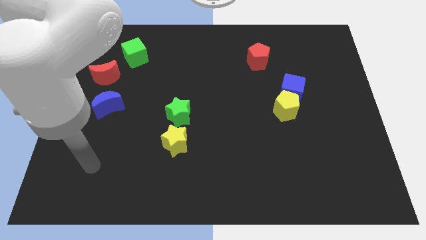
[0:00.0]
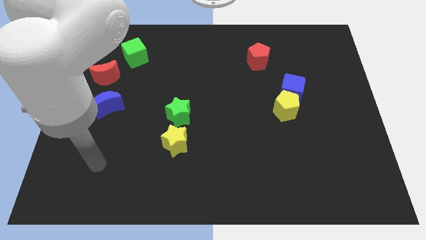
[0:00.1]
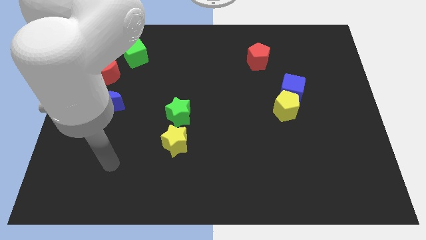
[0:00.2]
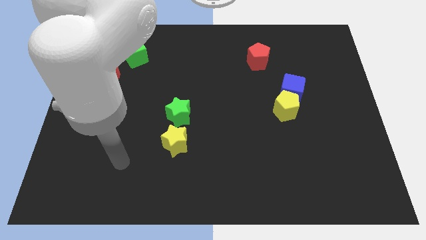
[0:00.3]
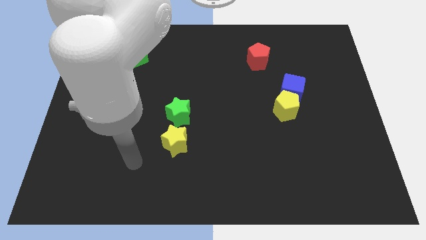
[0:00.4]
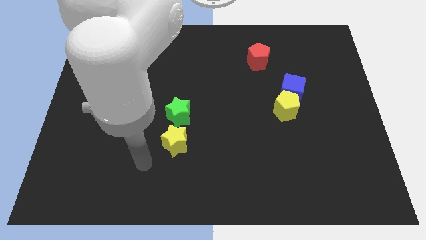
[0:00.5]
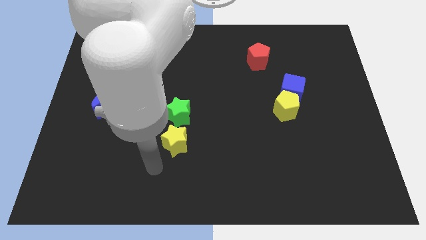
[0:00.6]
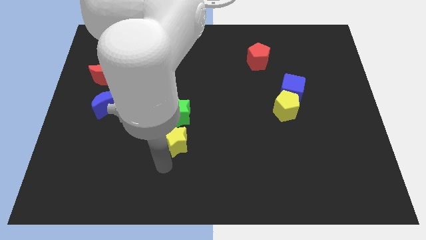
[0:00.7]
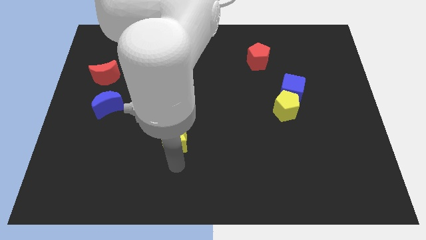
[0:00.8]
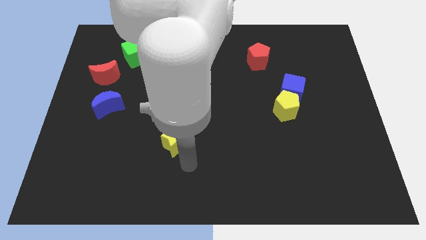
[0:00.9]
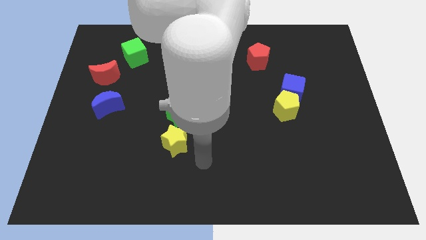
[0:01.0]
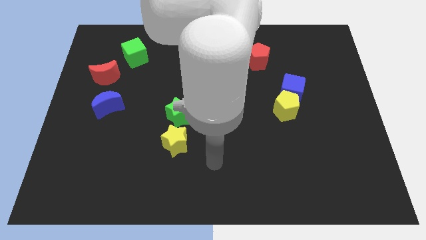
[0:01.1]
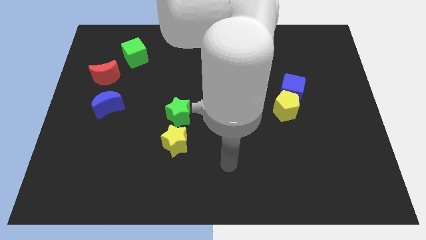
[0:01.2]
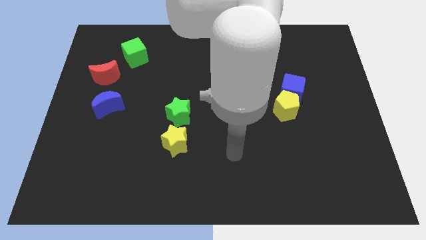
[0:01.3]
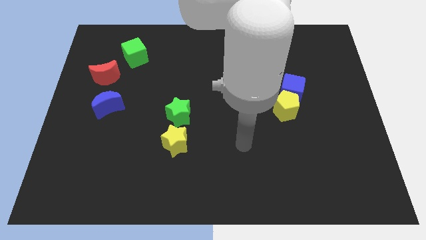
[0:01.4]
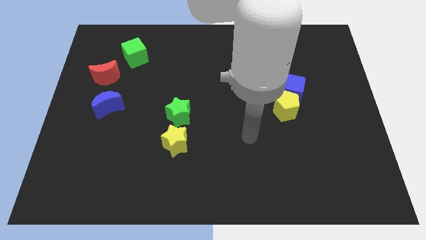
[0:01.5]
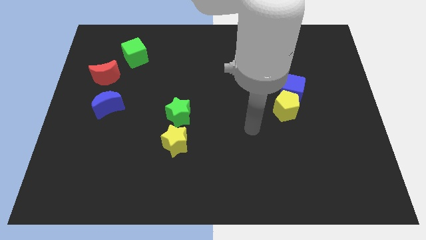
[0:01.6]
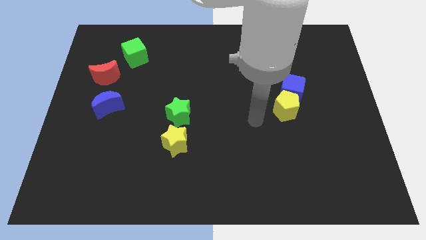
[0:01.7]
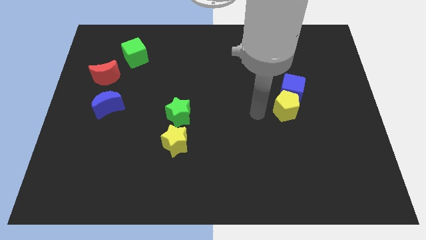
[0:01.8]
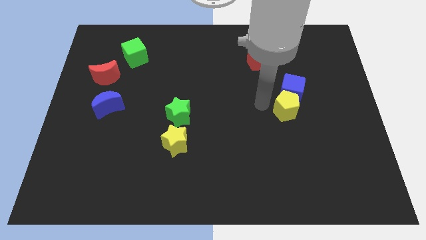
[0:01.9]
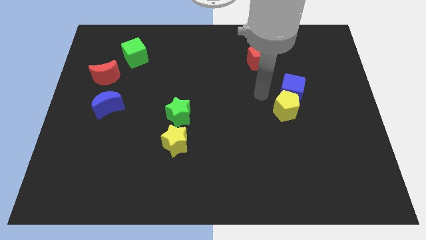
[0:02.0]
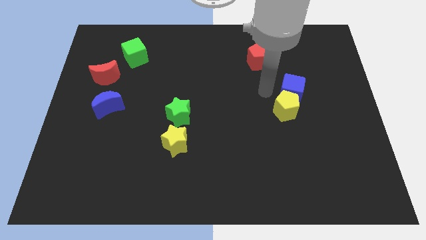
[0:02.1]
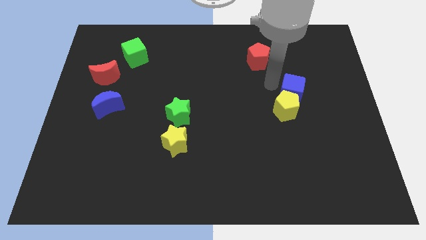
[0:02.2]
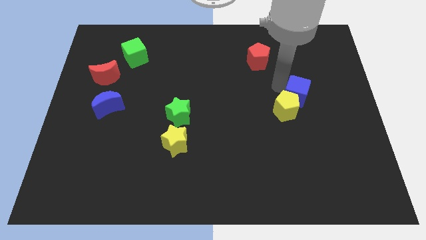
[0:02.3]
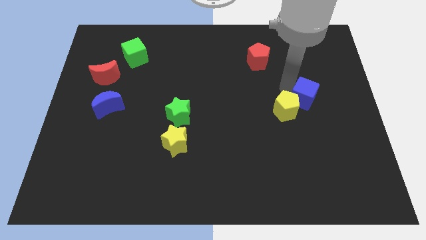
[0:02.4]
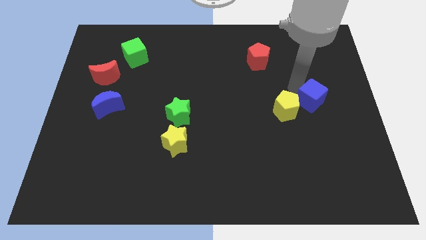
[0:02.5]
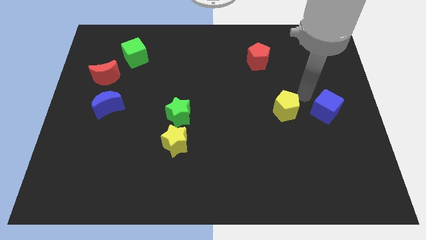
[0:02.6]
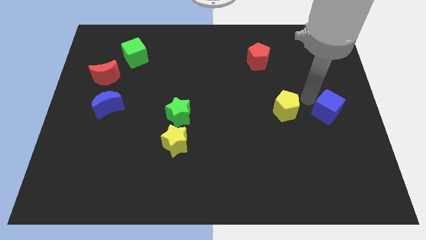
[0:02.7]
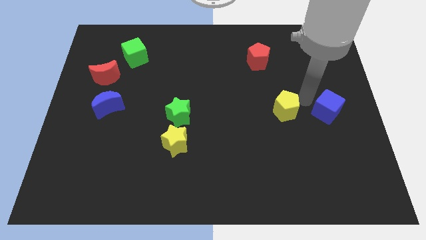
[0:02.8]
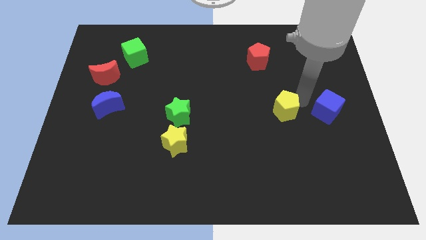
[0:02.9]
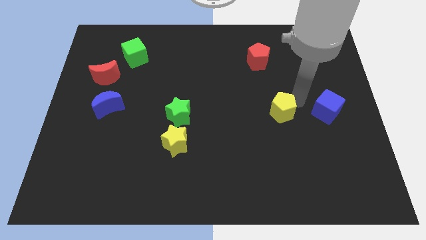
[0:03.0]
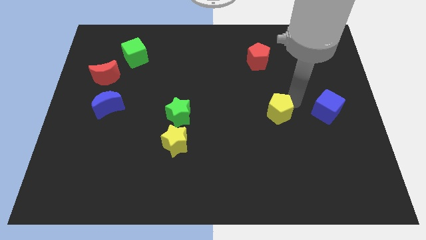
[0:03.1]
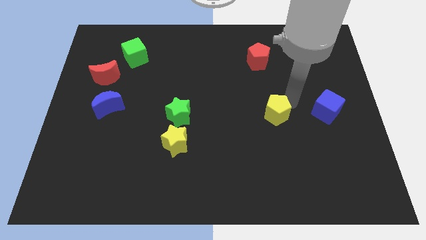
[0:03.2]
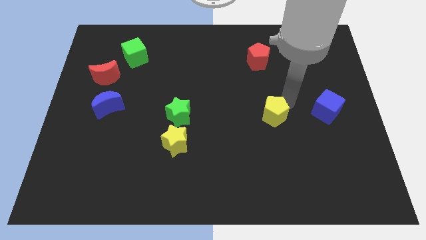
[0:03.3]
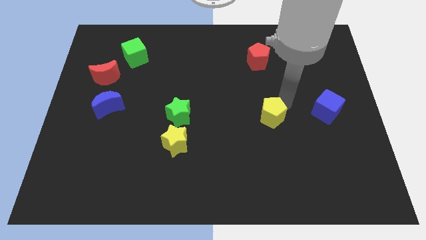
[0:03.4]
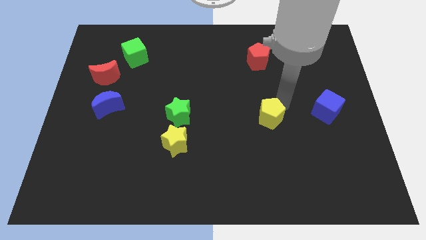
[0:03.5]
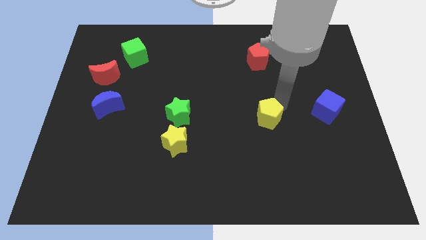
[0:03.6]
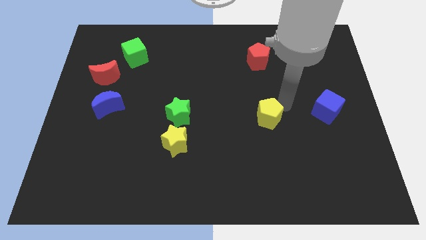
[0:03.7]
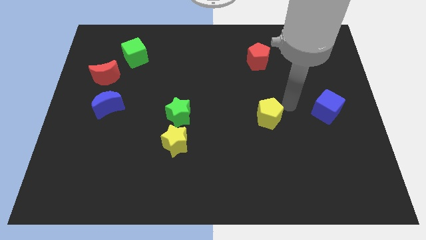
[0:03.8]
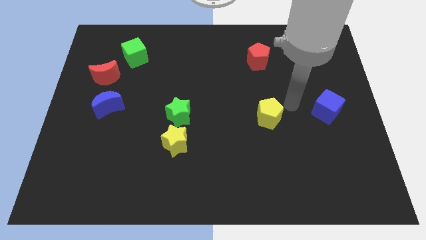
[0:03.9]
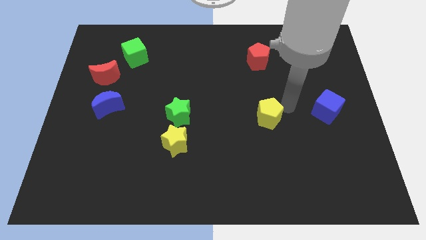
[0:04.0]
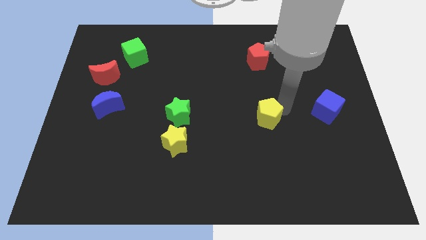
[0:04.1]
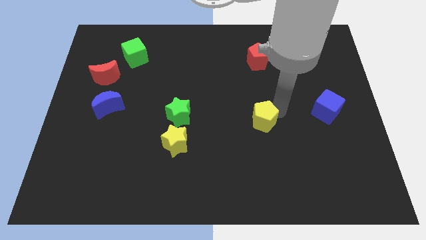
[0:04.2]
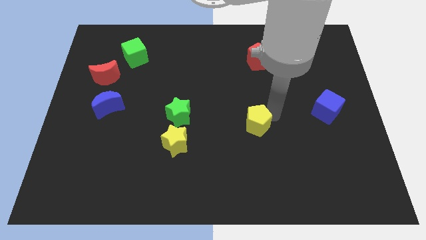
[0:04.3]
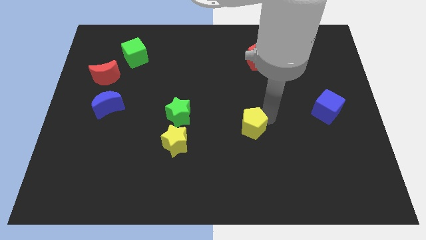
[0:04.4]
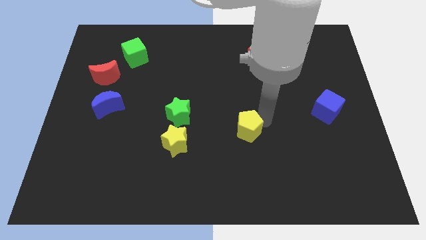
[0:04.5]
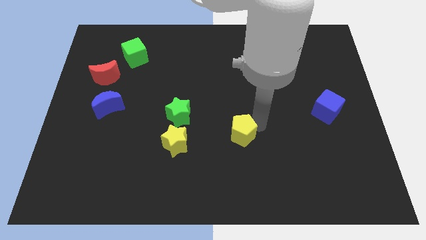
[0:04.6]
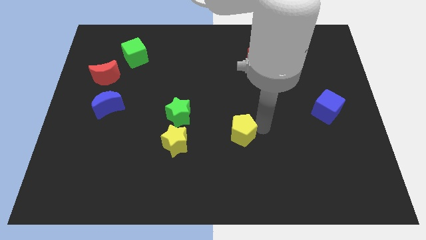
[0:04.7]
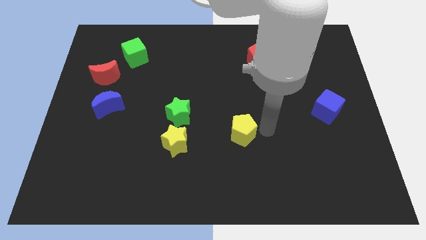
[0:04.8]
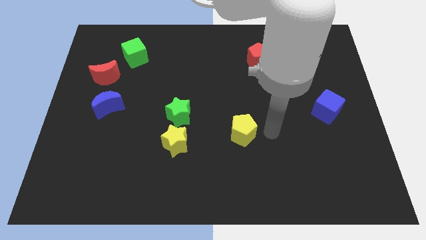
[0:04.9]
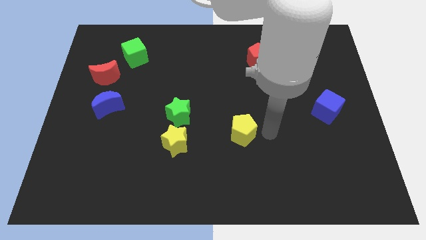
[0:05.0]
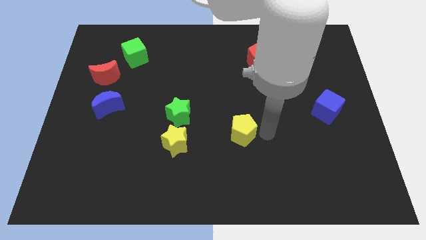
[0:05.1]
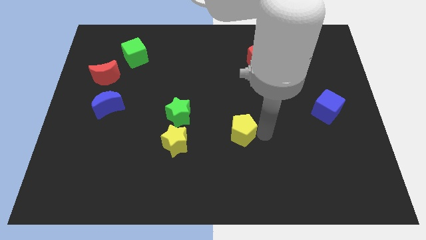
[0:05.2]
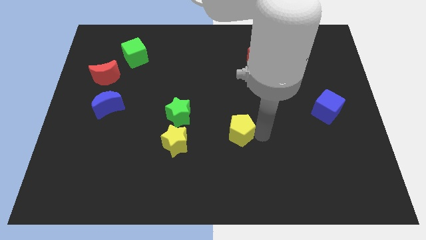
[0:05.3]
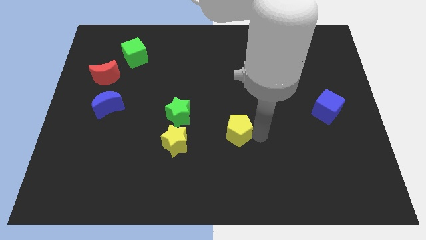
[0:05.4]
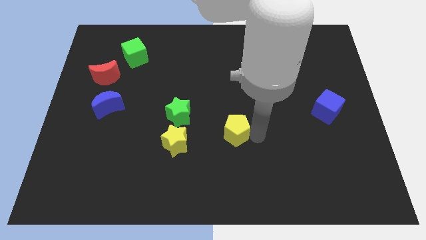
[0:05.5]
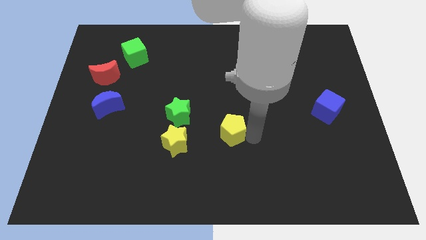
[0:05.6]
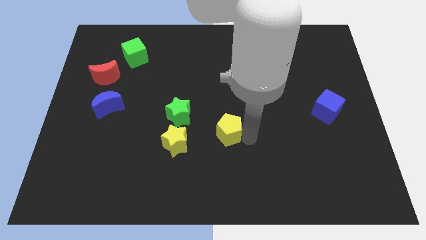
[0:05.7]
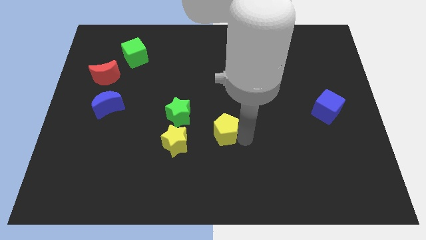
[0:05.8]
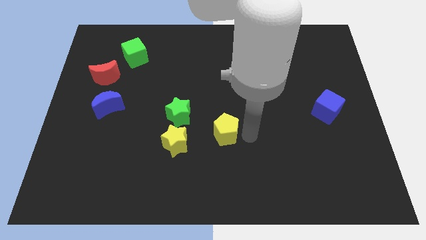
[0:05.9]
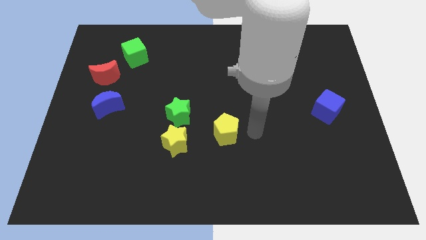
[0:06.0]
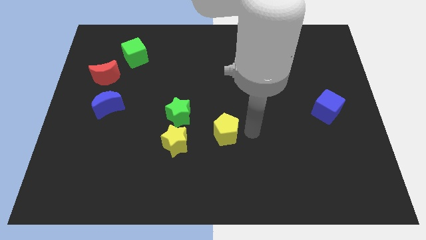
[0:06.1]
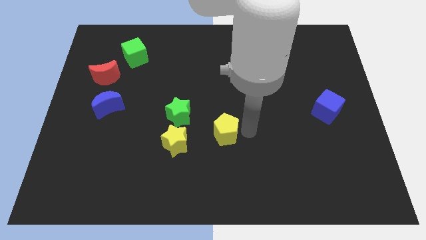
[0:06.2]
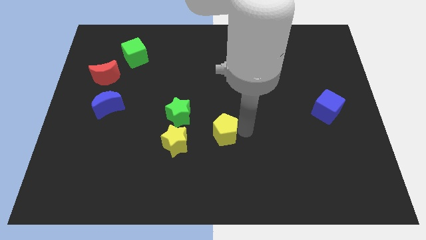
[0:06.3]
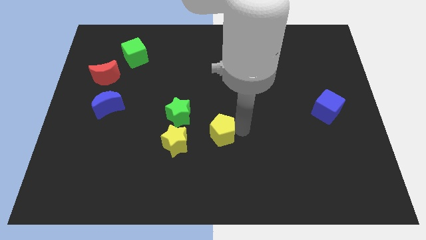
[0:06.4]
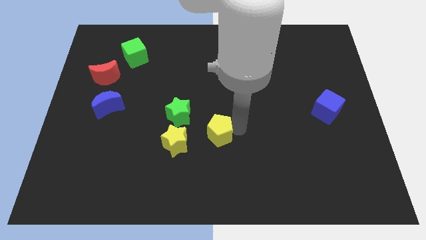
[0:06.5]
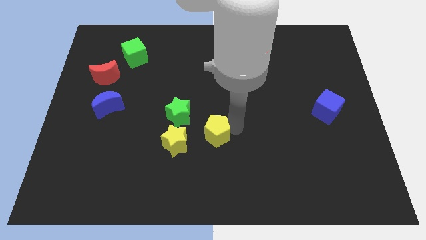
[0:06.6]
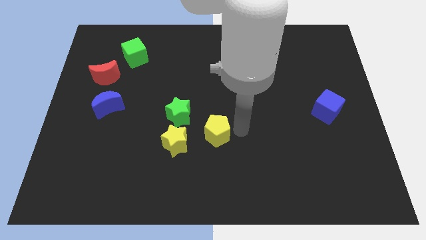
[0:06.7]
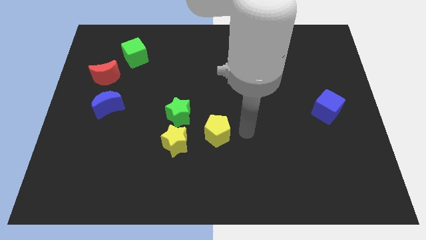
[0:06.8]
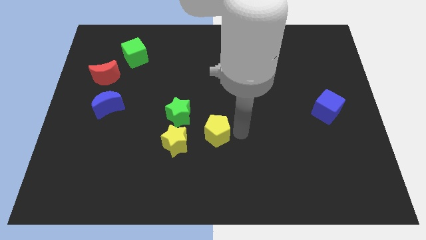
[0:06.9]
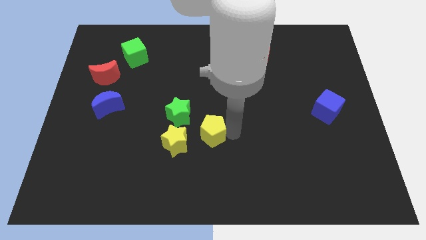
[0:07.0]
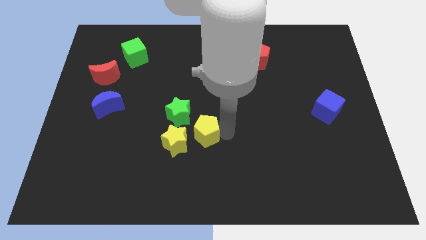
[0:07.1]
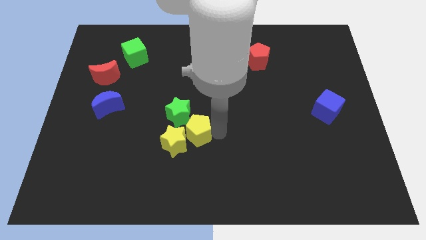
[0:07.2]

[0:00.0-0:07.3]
push the yellow pentagon towards the yellow star
